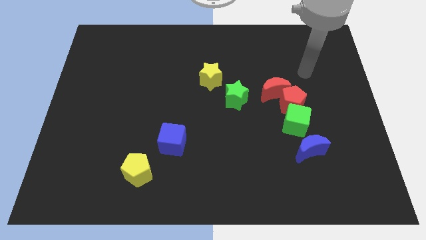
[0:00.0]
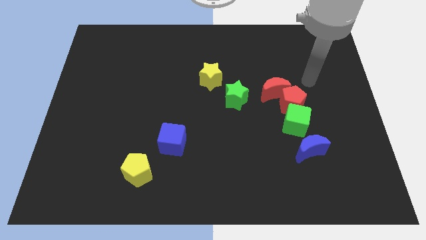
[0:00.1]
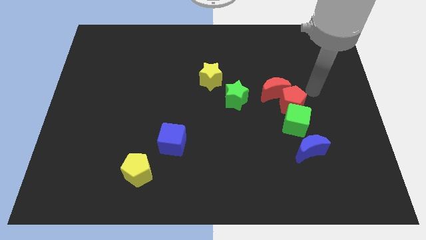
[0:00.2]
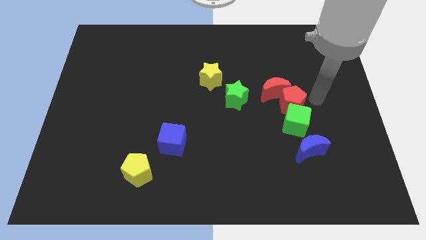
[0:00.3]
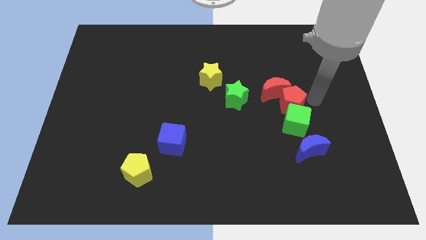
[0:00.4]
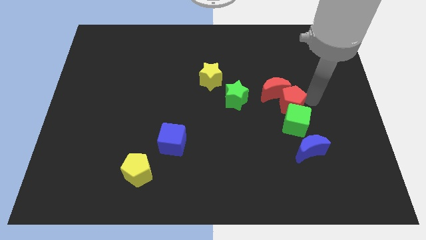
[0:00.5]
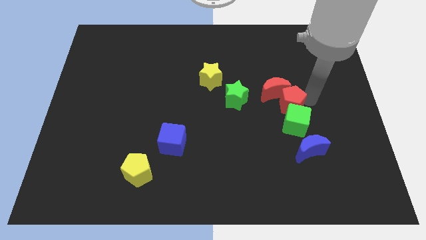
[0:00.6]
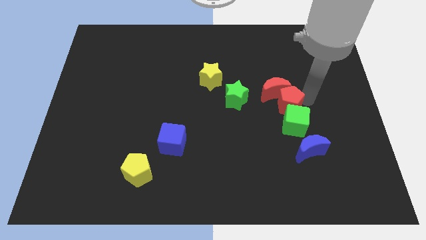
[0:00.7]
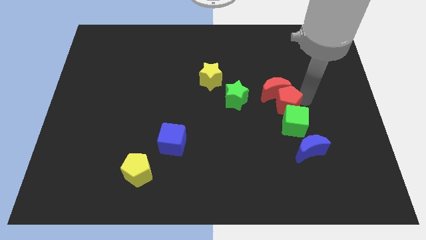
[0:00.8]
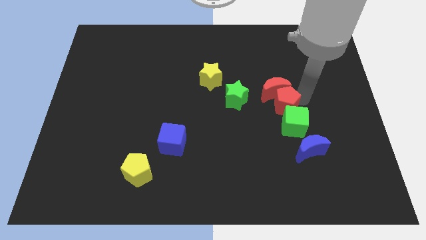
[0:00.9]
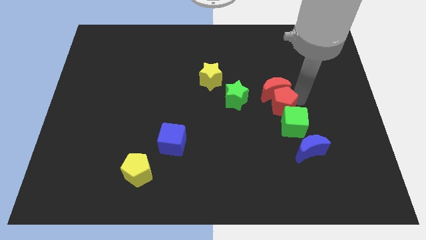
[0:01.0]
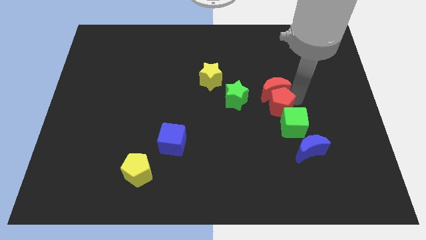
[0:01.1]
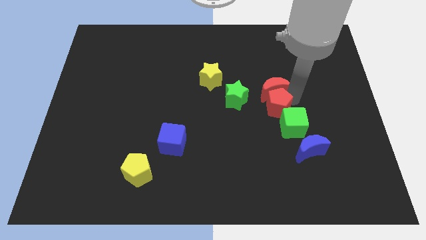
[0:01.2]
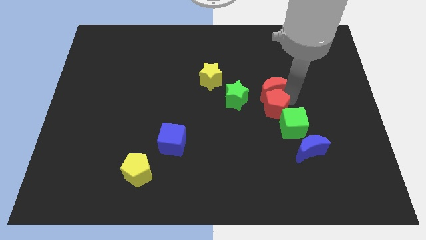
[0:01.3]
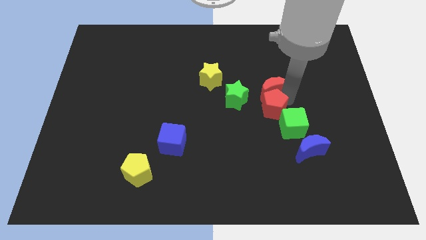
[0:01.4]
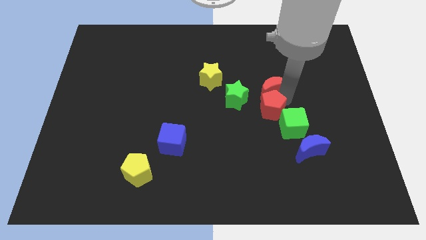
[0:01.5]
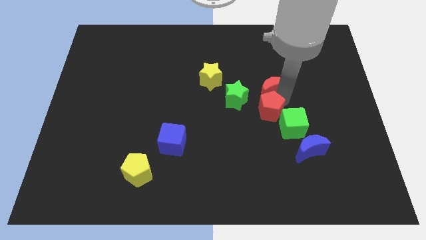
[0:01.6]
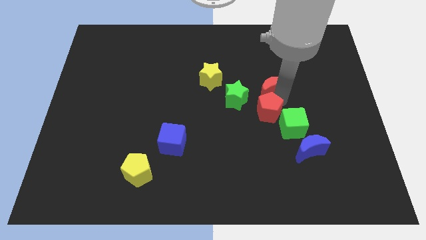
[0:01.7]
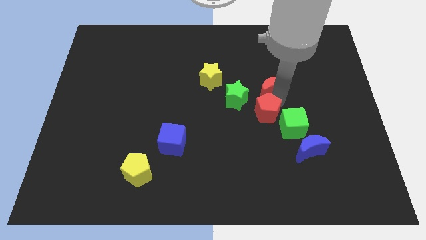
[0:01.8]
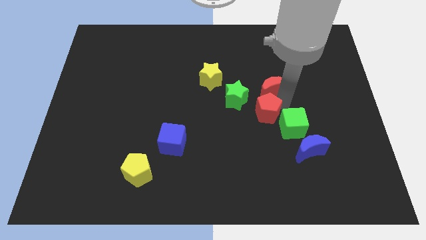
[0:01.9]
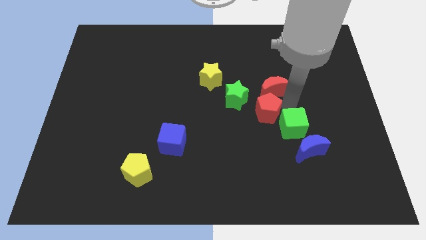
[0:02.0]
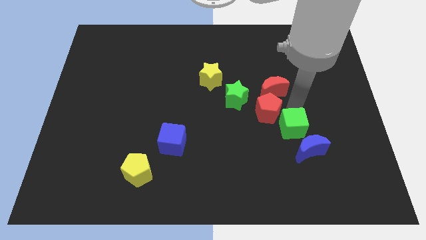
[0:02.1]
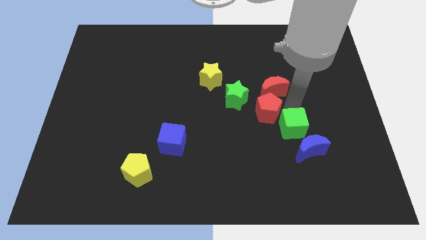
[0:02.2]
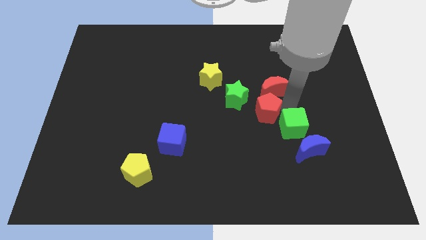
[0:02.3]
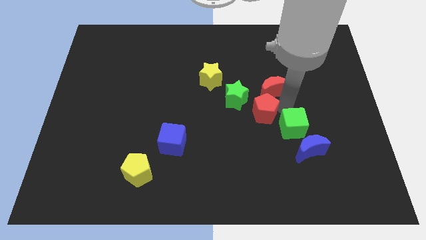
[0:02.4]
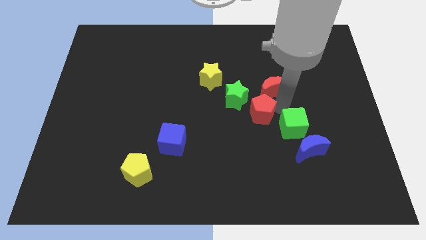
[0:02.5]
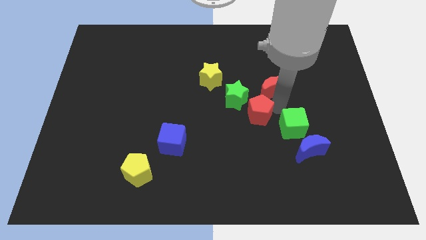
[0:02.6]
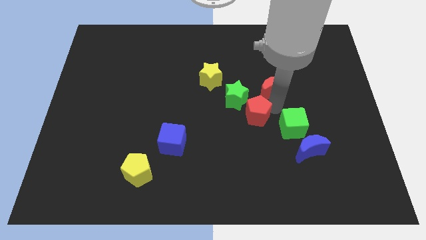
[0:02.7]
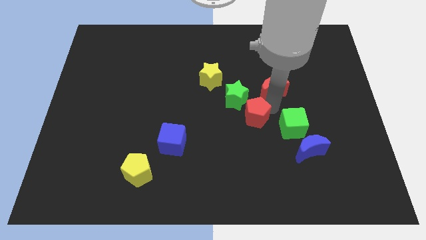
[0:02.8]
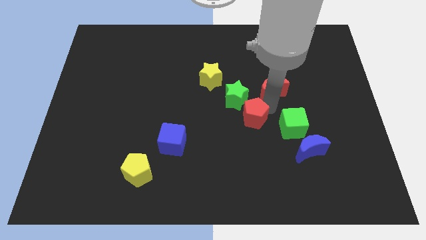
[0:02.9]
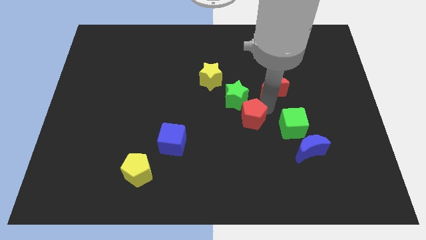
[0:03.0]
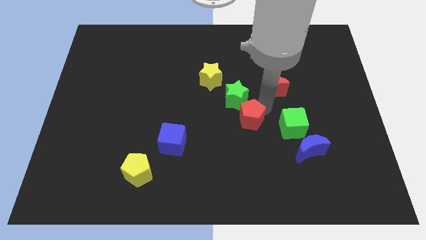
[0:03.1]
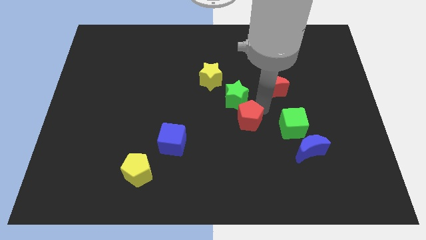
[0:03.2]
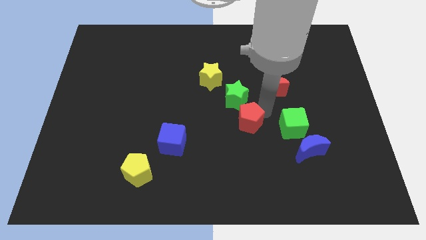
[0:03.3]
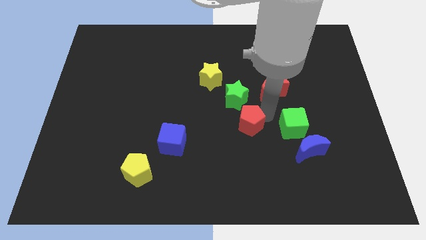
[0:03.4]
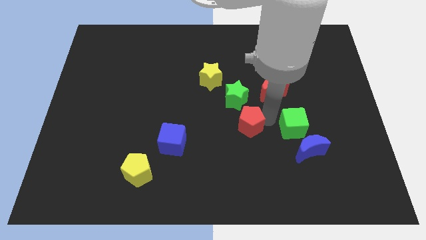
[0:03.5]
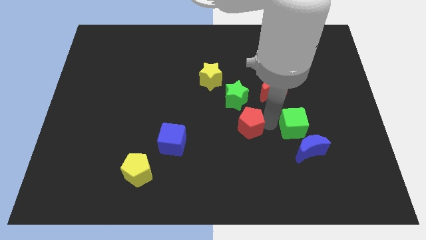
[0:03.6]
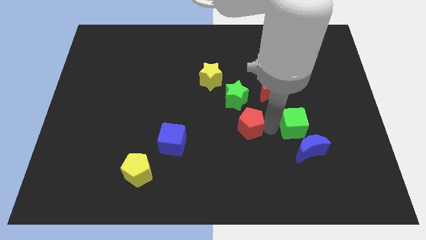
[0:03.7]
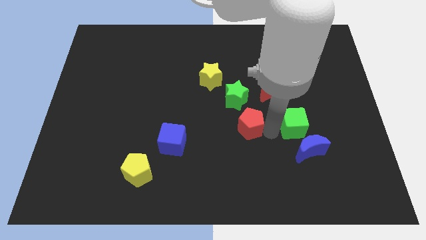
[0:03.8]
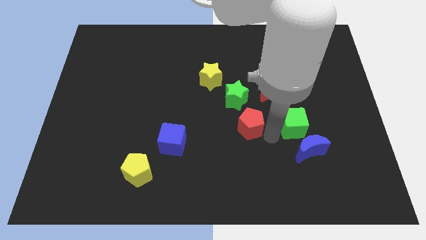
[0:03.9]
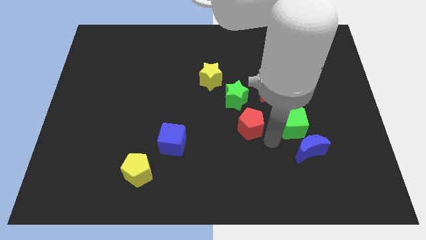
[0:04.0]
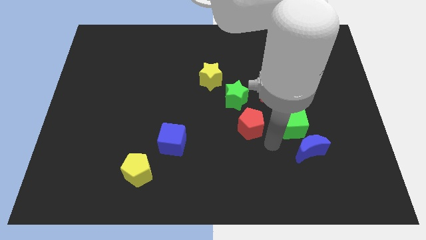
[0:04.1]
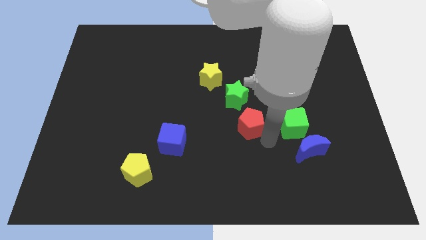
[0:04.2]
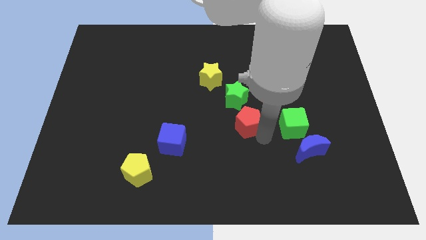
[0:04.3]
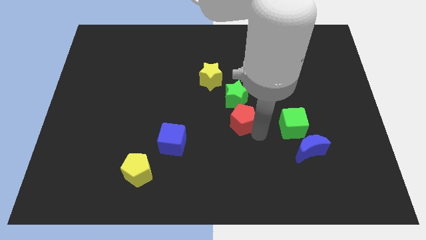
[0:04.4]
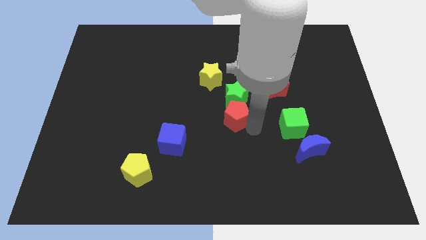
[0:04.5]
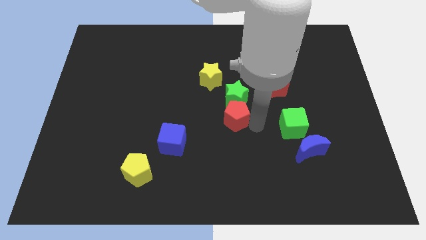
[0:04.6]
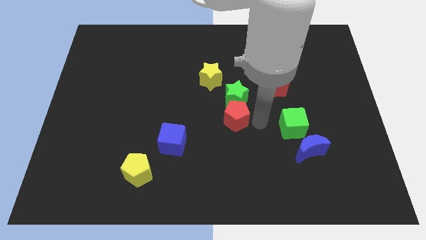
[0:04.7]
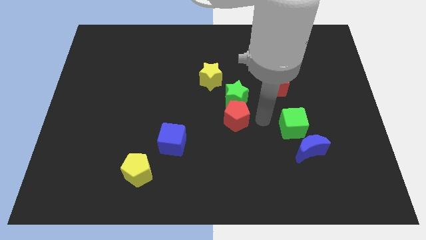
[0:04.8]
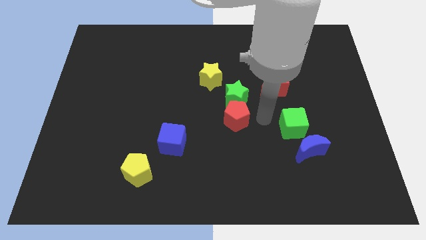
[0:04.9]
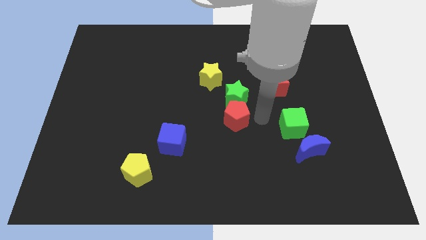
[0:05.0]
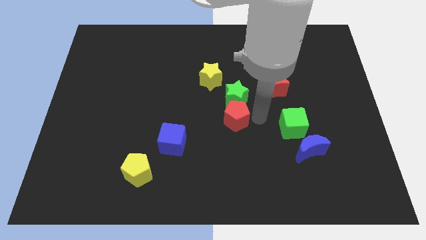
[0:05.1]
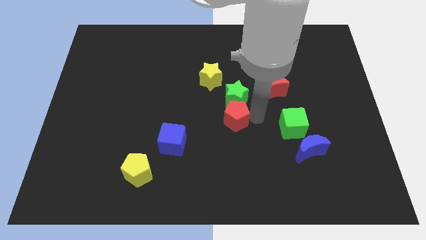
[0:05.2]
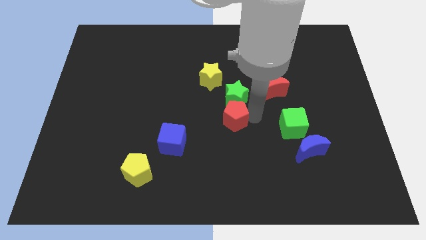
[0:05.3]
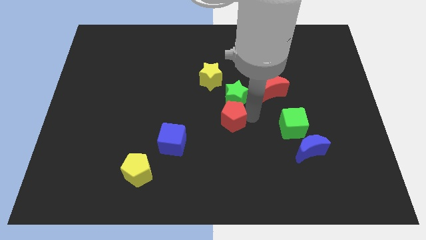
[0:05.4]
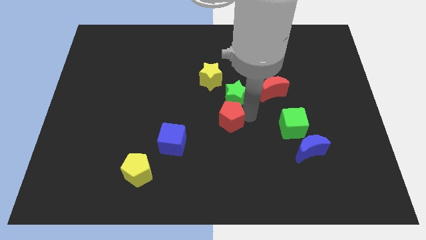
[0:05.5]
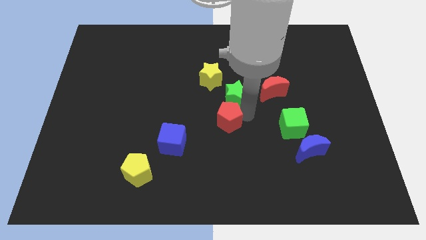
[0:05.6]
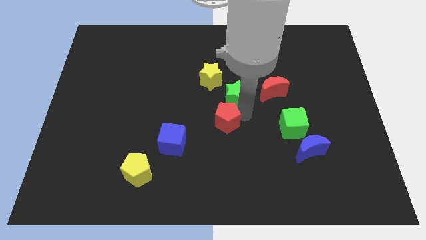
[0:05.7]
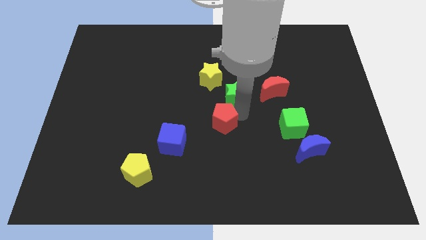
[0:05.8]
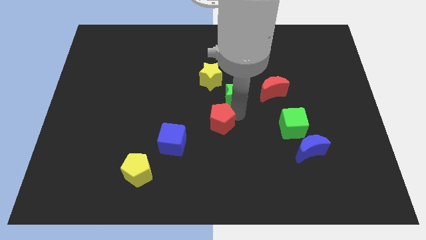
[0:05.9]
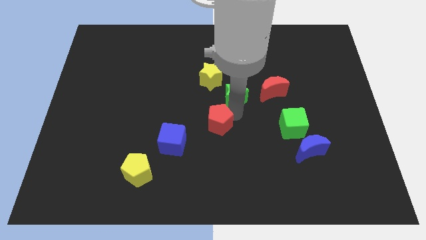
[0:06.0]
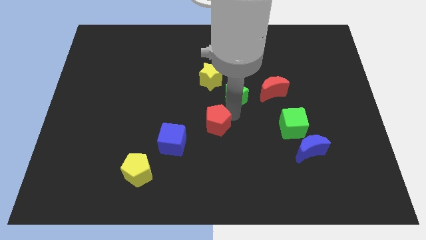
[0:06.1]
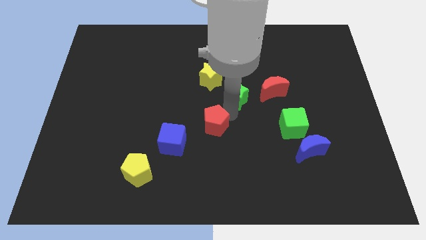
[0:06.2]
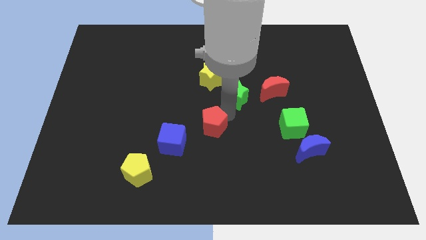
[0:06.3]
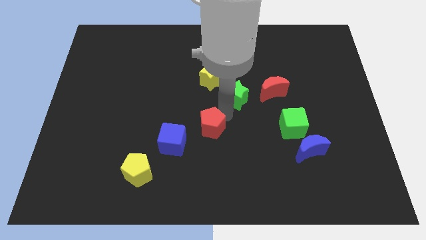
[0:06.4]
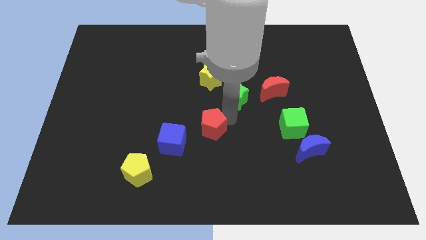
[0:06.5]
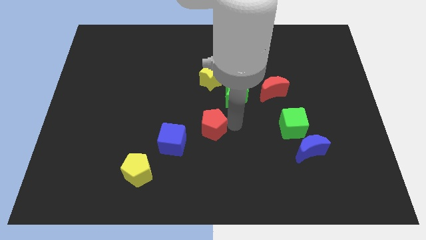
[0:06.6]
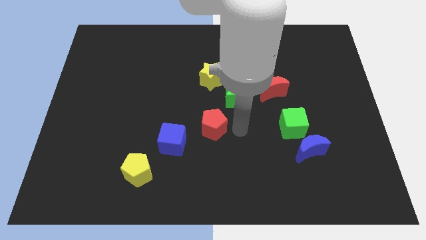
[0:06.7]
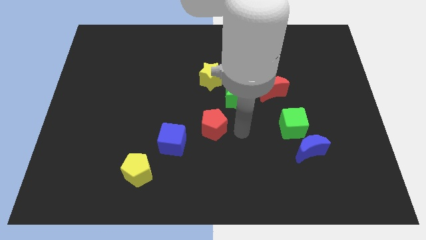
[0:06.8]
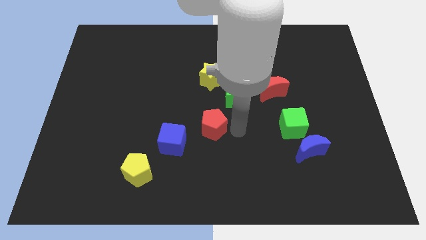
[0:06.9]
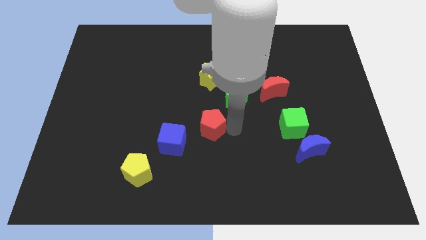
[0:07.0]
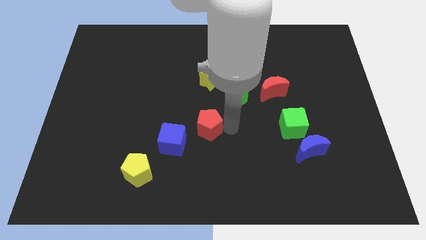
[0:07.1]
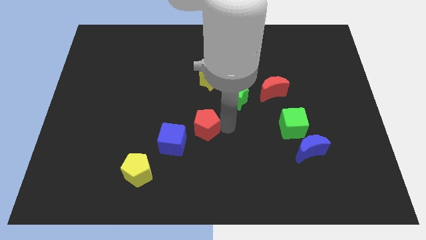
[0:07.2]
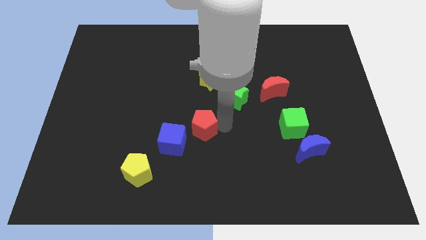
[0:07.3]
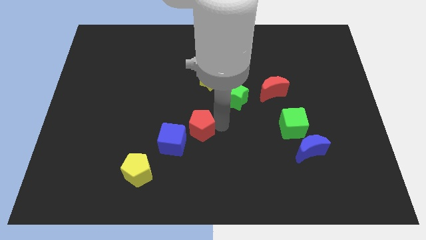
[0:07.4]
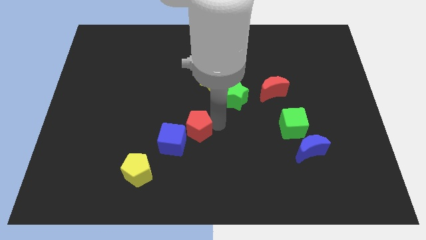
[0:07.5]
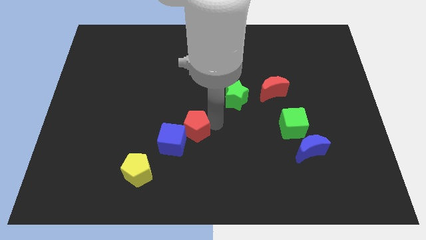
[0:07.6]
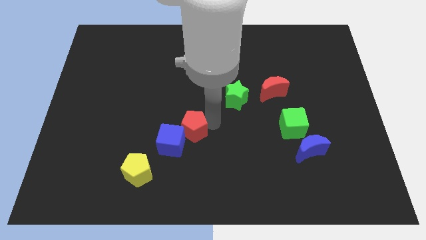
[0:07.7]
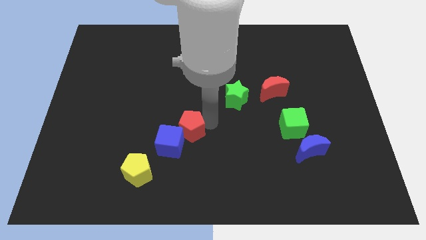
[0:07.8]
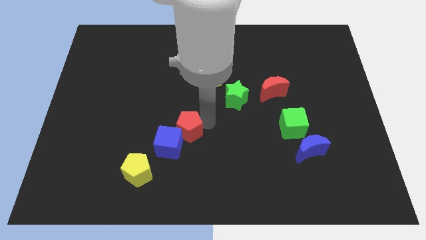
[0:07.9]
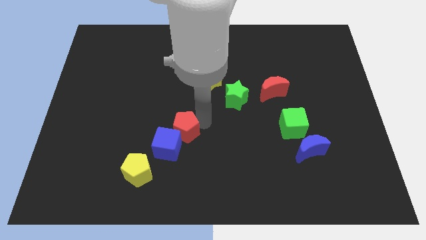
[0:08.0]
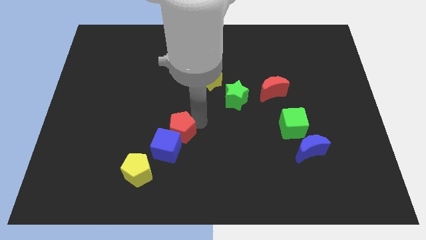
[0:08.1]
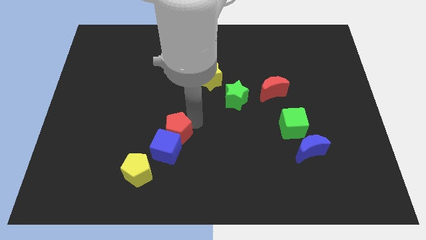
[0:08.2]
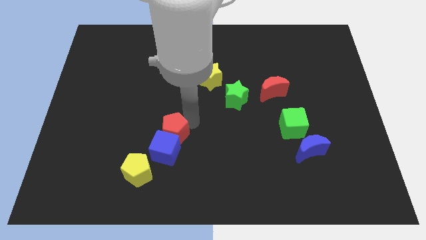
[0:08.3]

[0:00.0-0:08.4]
move the red pentagon to the top left of the blue cube
